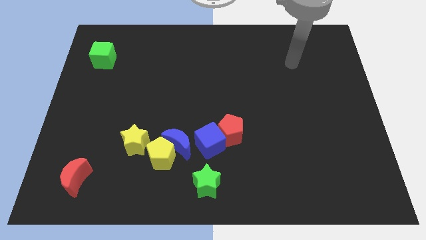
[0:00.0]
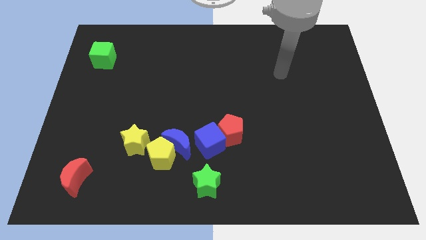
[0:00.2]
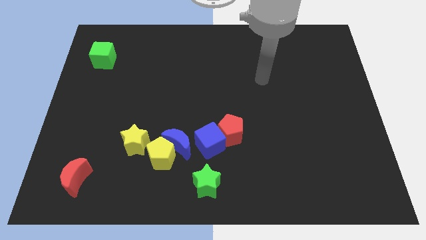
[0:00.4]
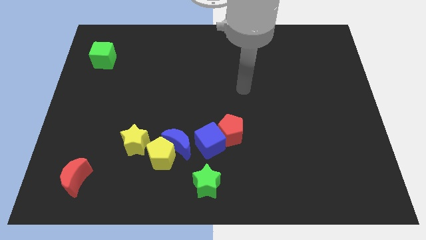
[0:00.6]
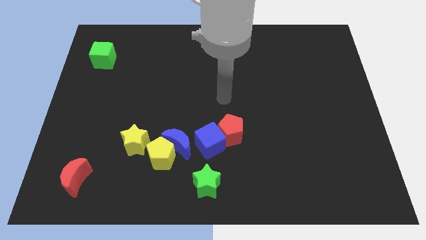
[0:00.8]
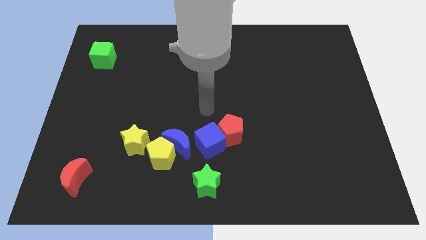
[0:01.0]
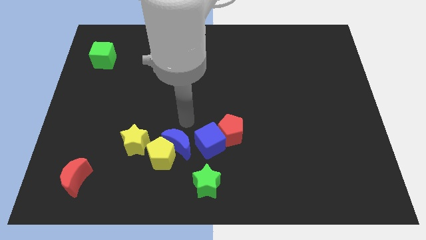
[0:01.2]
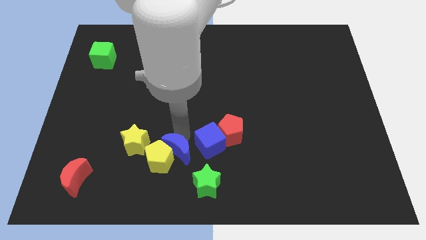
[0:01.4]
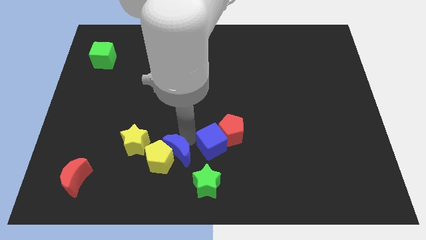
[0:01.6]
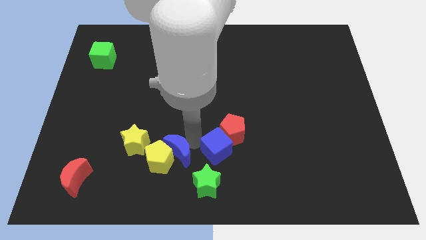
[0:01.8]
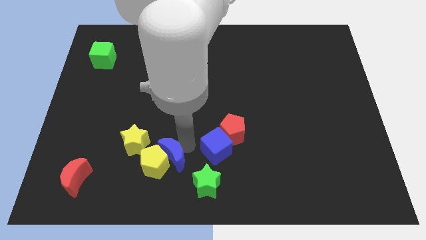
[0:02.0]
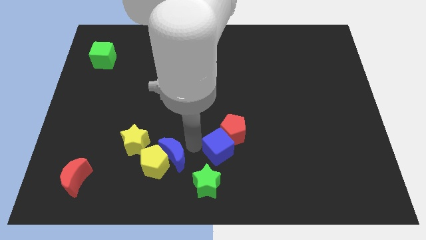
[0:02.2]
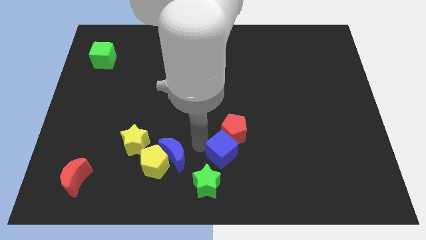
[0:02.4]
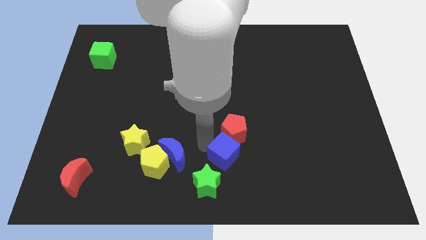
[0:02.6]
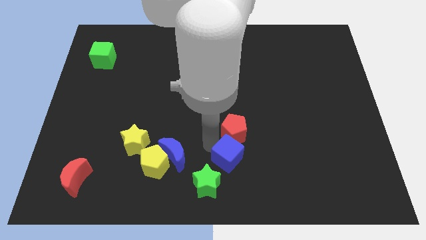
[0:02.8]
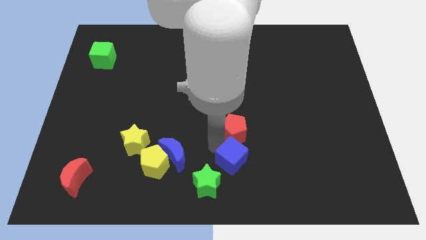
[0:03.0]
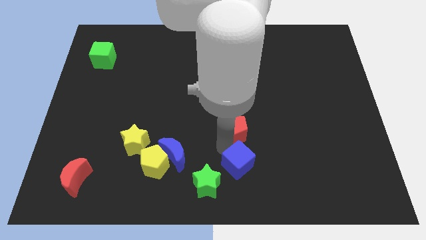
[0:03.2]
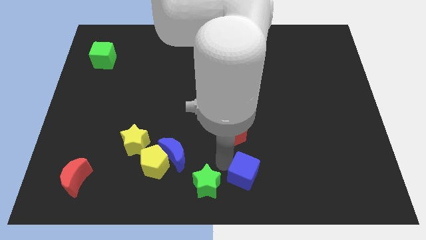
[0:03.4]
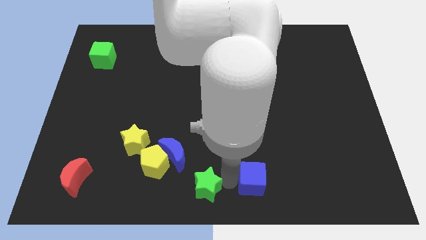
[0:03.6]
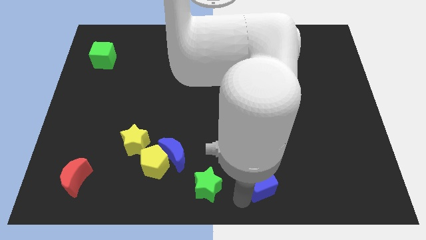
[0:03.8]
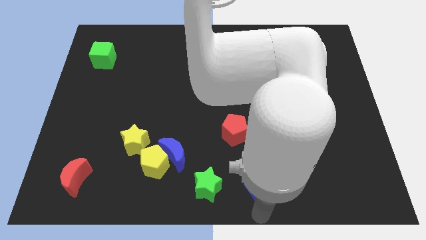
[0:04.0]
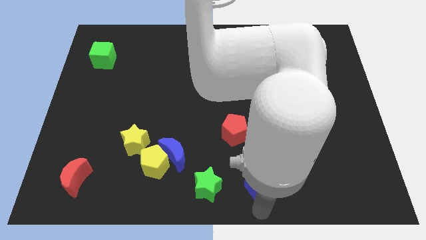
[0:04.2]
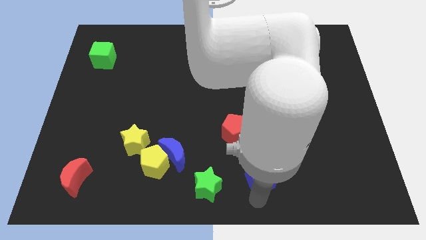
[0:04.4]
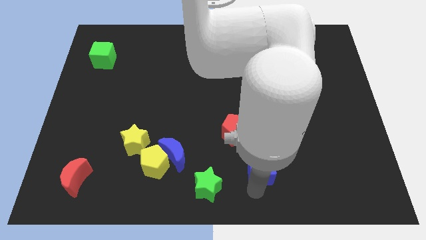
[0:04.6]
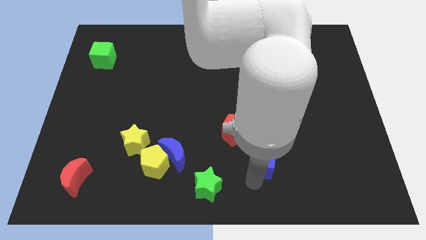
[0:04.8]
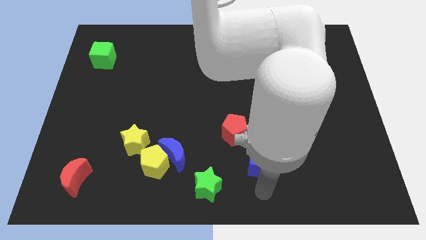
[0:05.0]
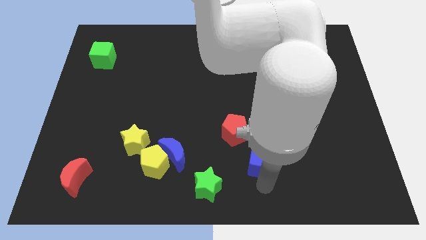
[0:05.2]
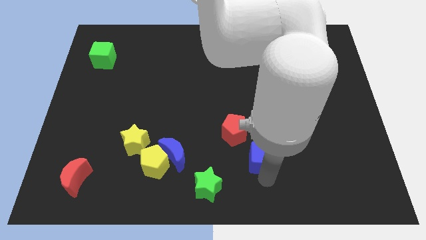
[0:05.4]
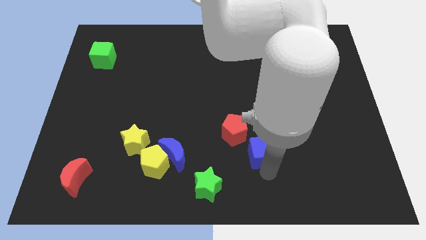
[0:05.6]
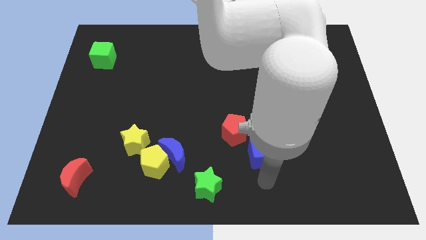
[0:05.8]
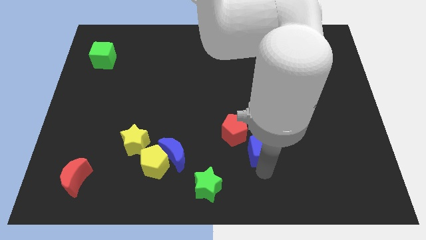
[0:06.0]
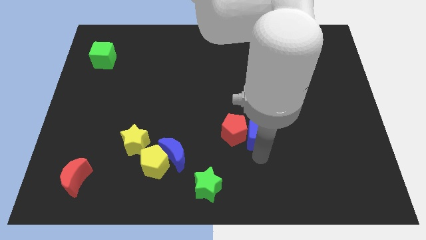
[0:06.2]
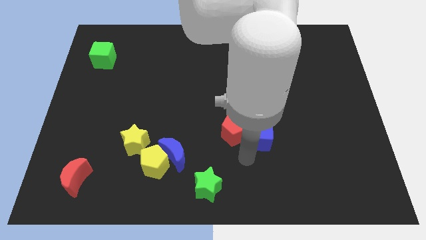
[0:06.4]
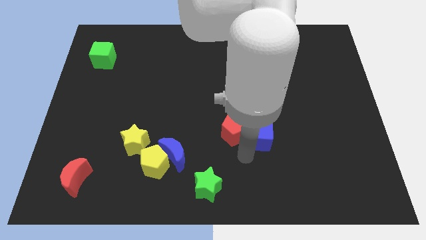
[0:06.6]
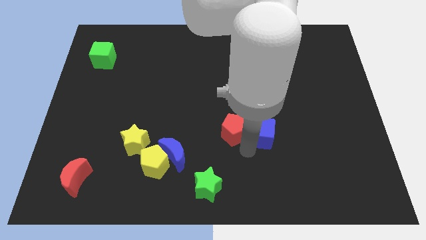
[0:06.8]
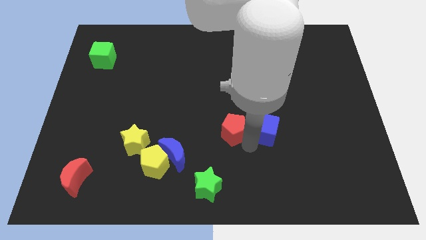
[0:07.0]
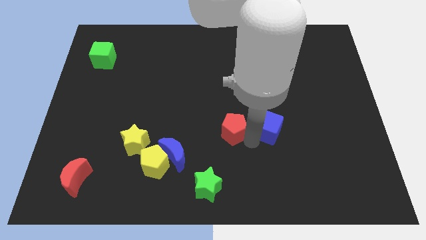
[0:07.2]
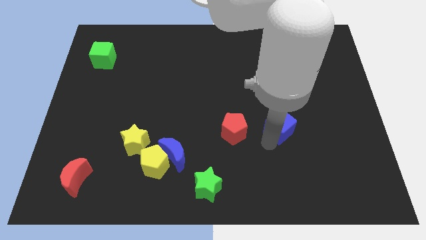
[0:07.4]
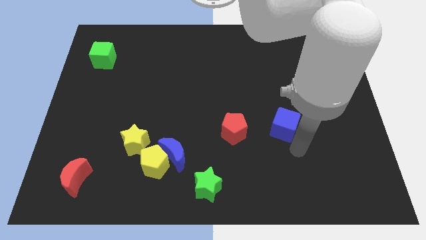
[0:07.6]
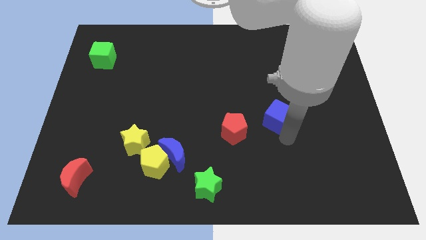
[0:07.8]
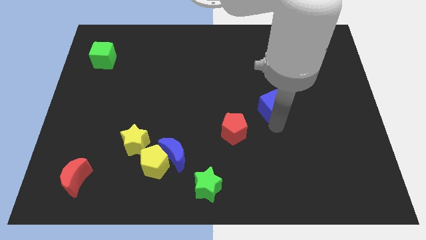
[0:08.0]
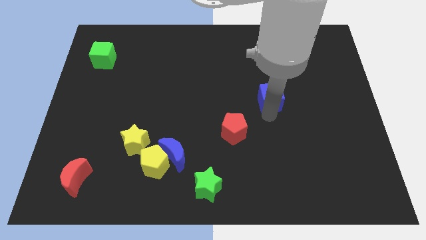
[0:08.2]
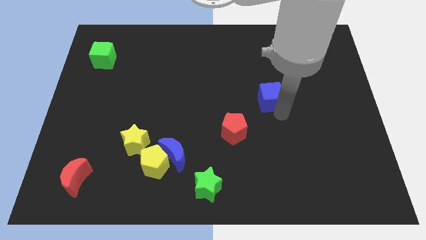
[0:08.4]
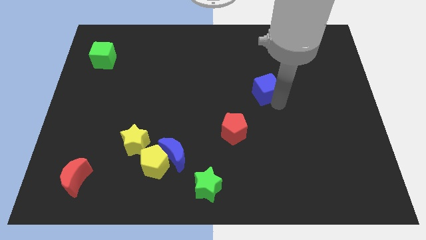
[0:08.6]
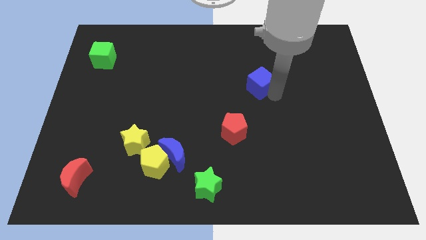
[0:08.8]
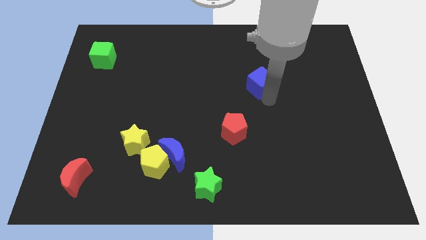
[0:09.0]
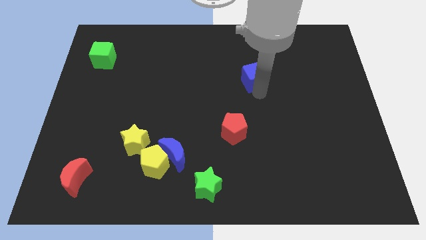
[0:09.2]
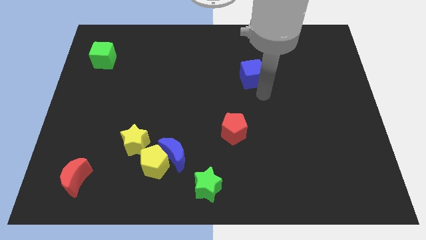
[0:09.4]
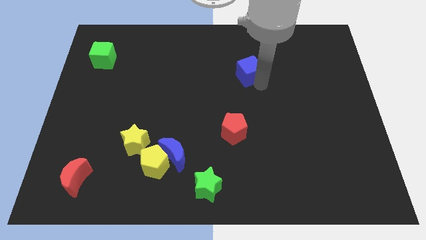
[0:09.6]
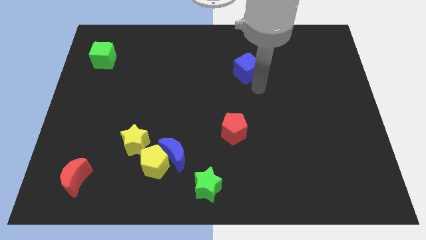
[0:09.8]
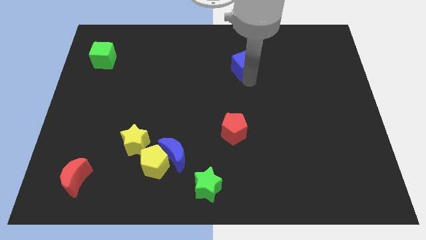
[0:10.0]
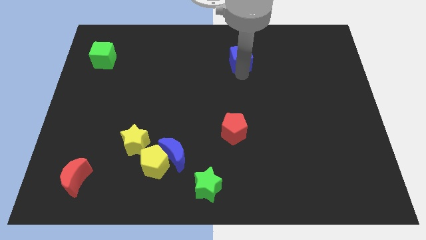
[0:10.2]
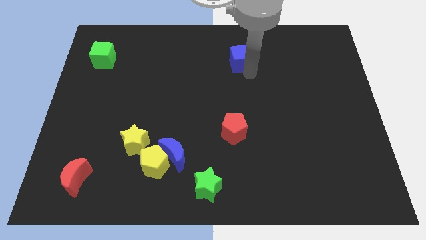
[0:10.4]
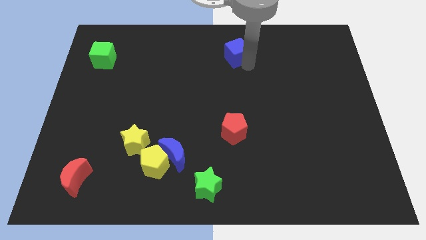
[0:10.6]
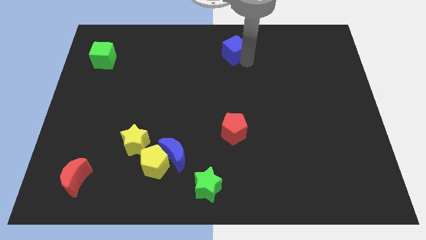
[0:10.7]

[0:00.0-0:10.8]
slide the blue cube to the top side

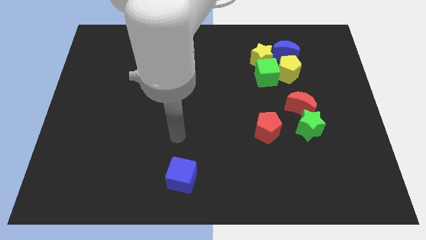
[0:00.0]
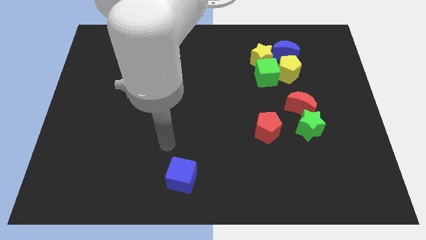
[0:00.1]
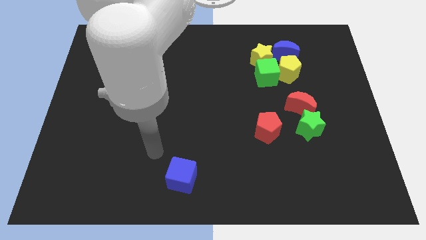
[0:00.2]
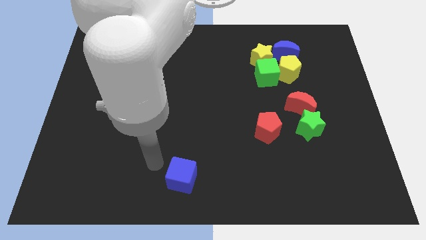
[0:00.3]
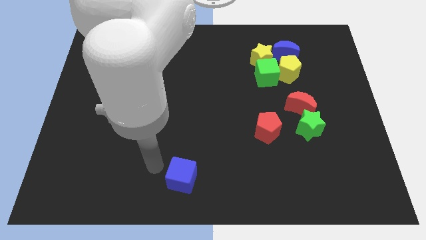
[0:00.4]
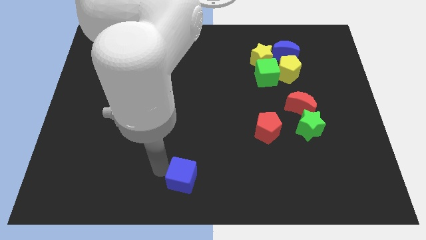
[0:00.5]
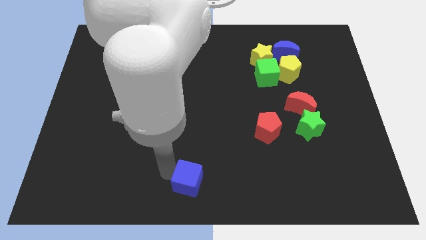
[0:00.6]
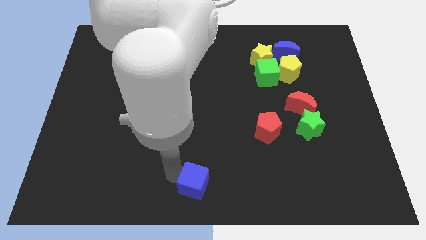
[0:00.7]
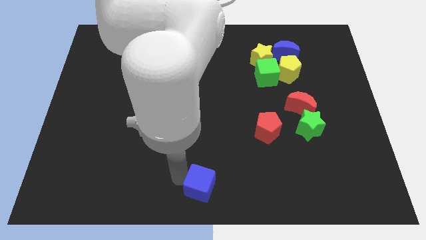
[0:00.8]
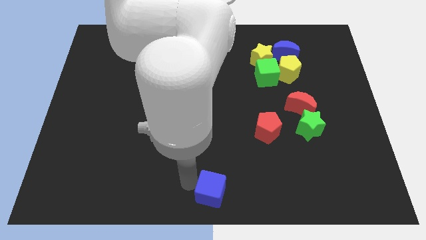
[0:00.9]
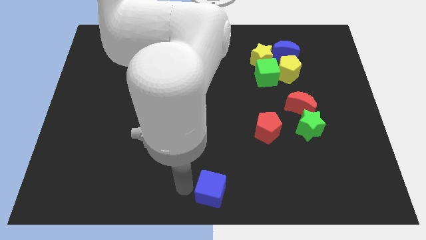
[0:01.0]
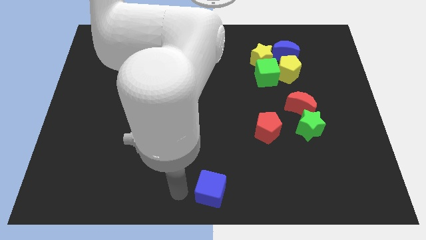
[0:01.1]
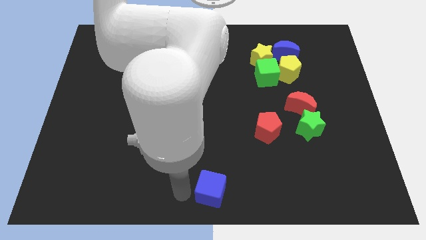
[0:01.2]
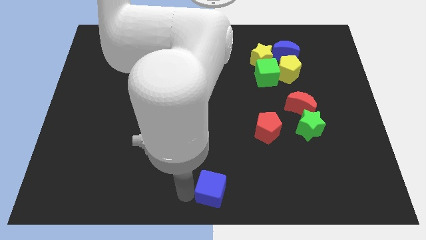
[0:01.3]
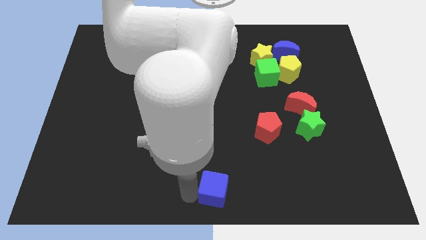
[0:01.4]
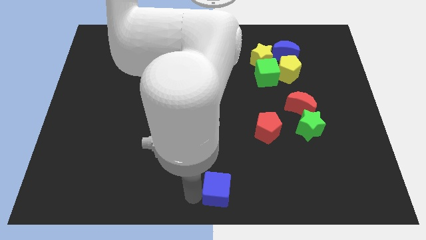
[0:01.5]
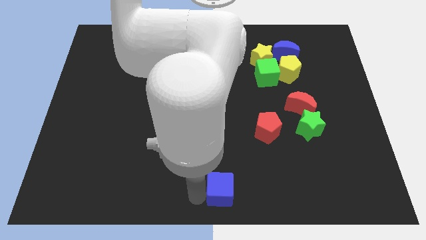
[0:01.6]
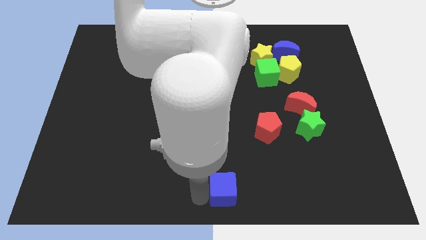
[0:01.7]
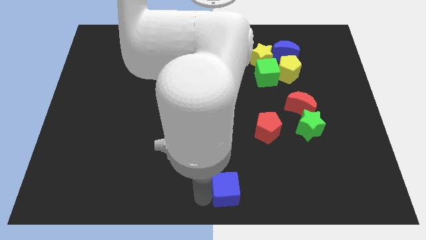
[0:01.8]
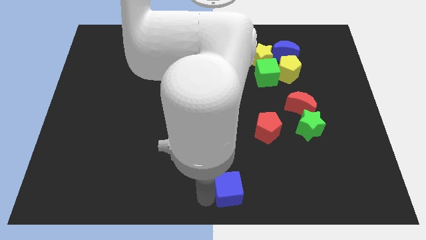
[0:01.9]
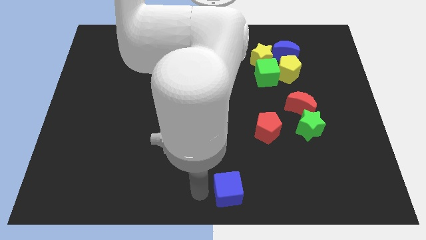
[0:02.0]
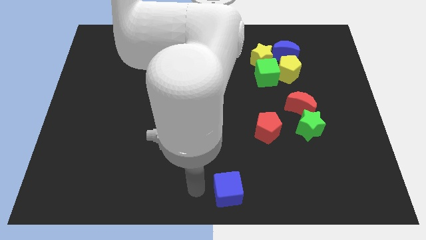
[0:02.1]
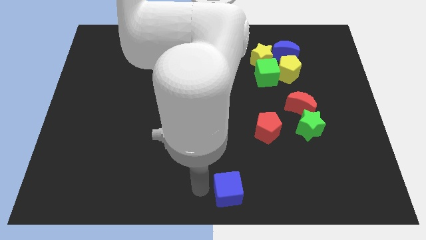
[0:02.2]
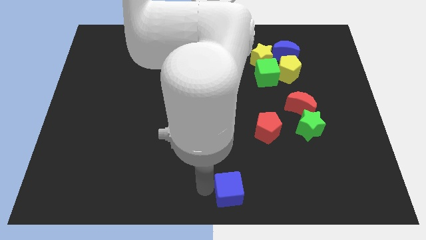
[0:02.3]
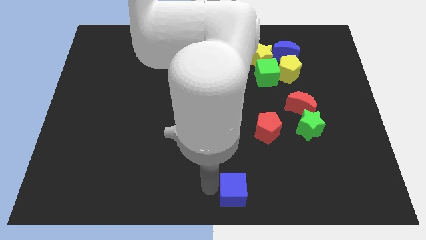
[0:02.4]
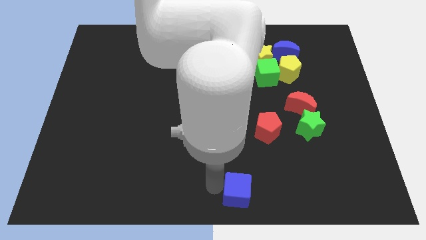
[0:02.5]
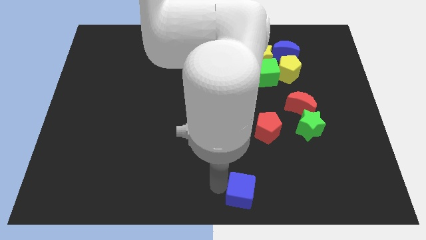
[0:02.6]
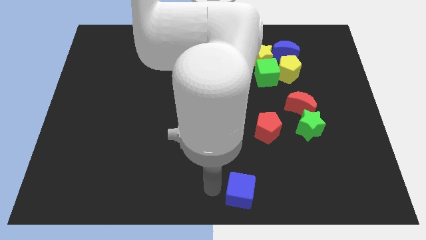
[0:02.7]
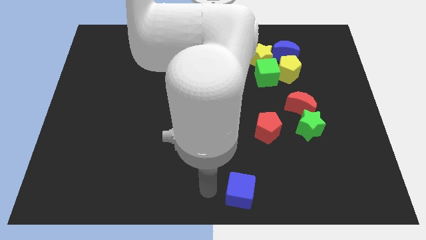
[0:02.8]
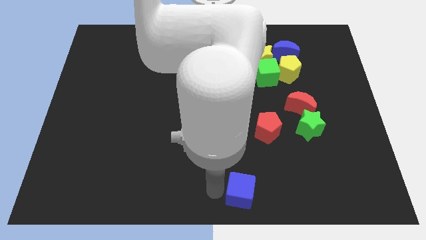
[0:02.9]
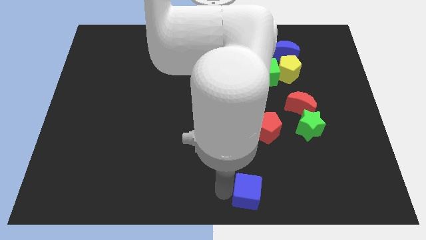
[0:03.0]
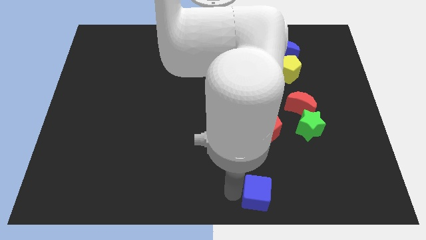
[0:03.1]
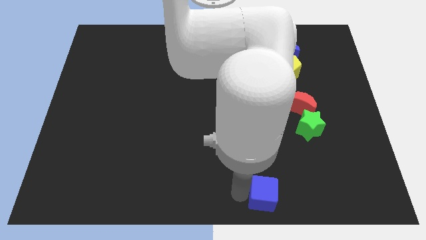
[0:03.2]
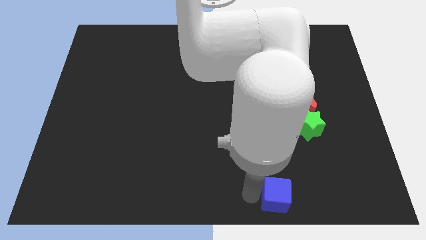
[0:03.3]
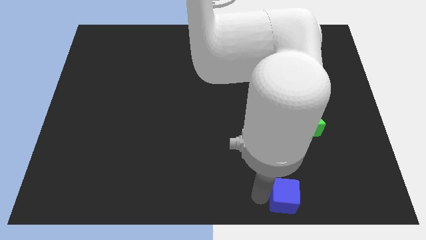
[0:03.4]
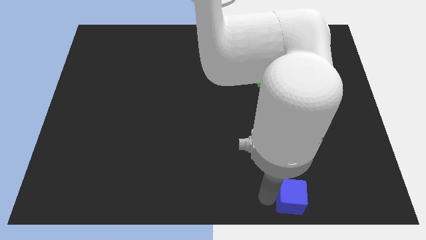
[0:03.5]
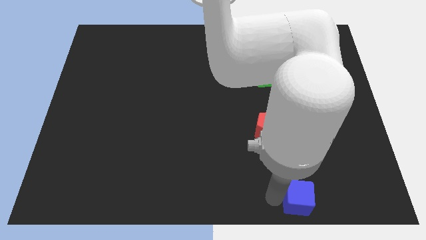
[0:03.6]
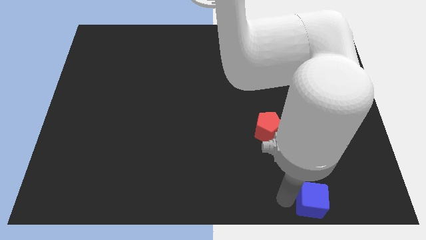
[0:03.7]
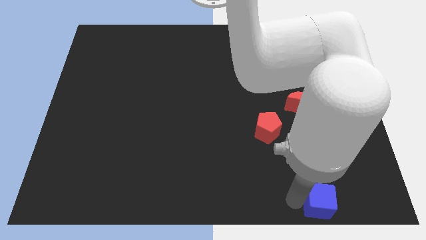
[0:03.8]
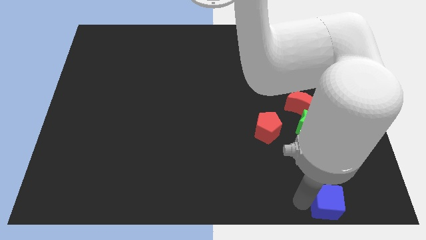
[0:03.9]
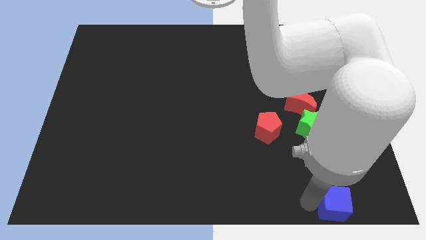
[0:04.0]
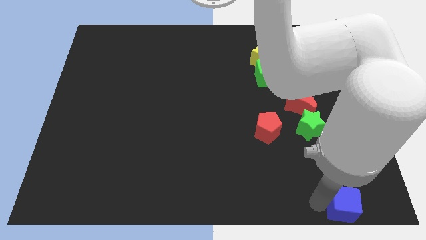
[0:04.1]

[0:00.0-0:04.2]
move the blue cube to the bottom right of the board
